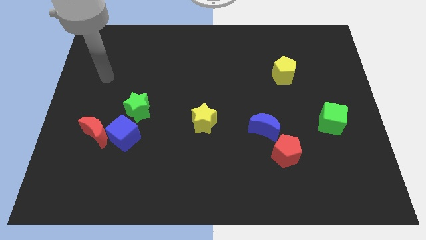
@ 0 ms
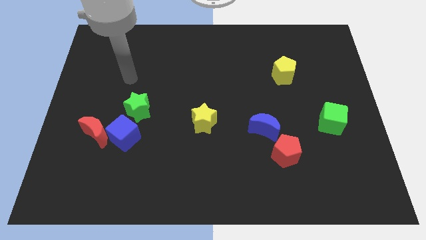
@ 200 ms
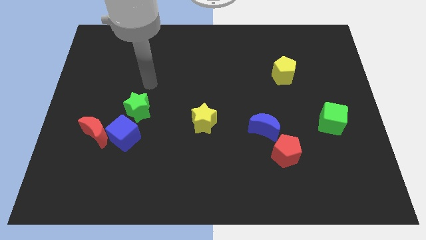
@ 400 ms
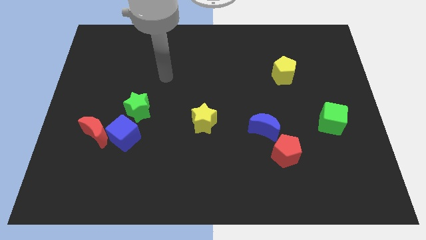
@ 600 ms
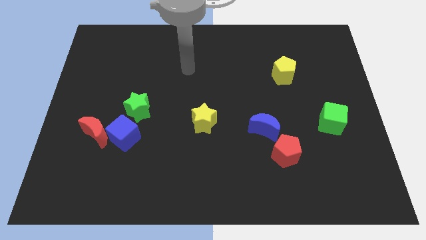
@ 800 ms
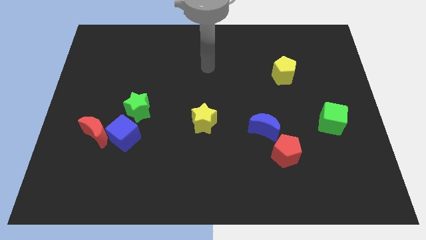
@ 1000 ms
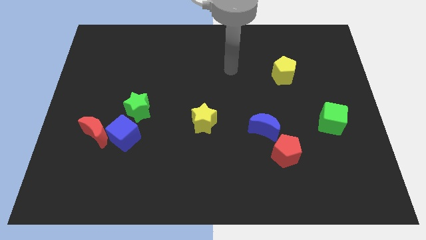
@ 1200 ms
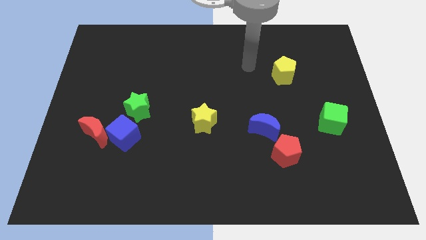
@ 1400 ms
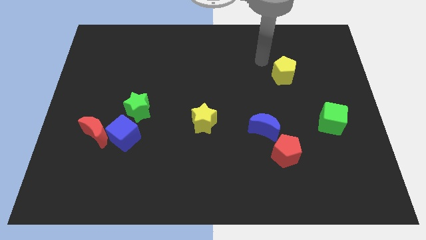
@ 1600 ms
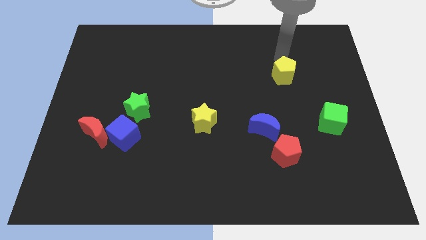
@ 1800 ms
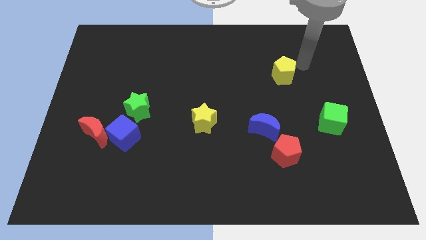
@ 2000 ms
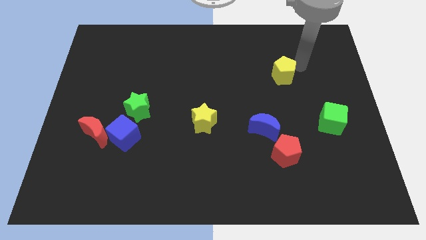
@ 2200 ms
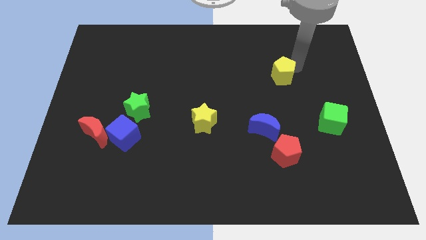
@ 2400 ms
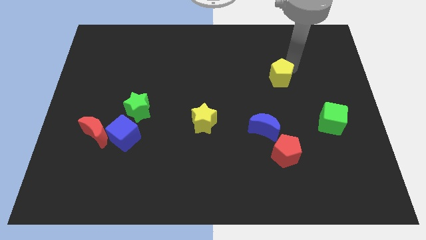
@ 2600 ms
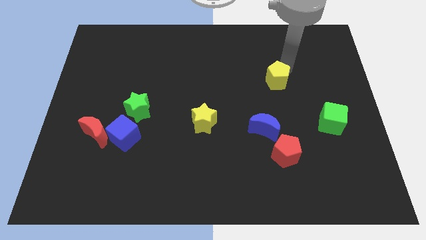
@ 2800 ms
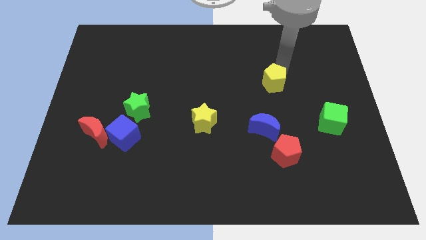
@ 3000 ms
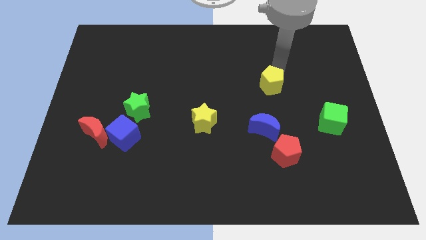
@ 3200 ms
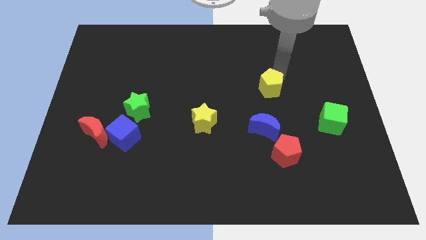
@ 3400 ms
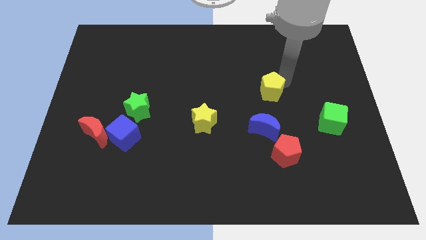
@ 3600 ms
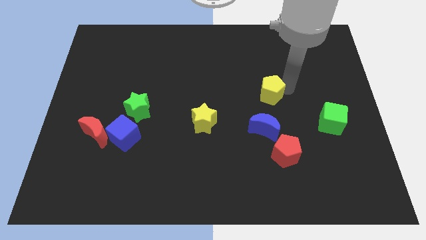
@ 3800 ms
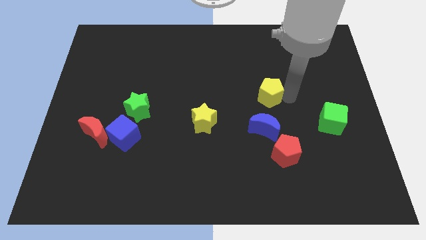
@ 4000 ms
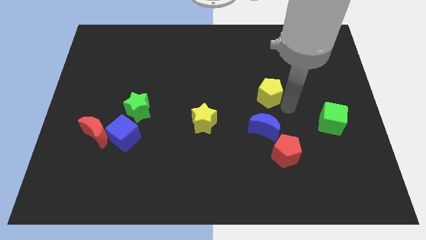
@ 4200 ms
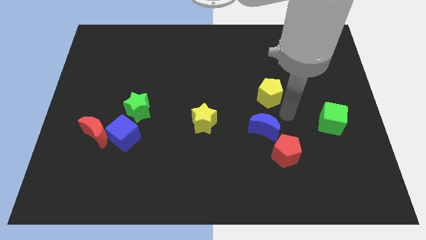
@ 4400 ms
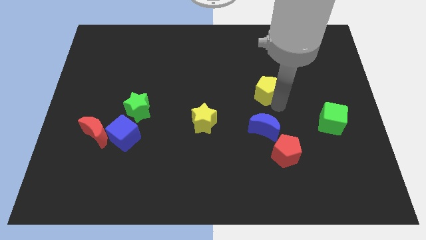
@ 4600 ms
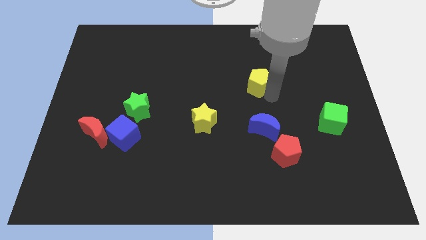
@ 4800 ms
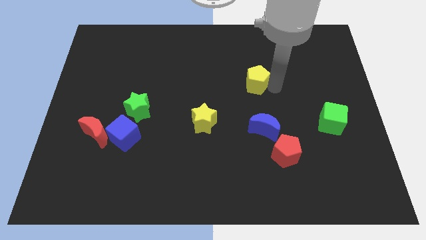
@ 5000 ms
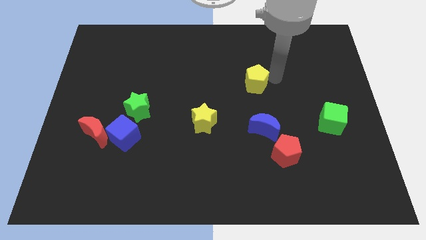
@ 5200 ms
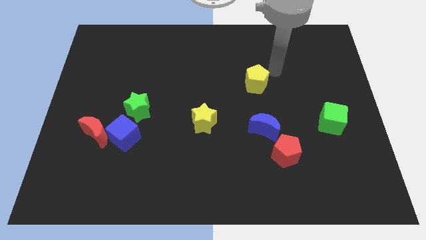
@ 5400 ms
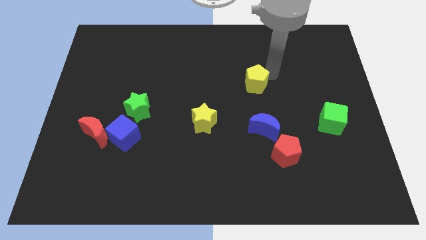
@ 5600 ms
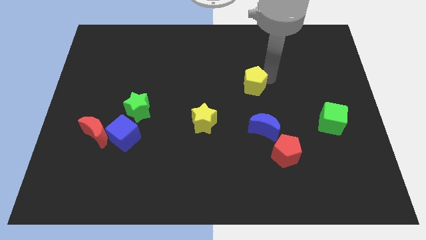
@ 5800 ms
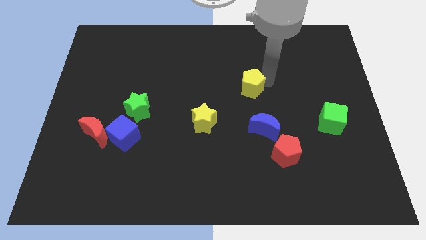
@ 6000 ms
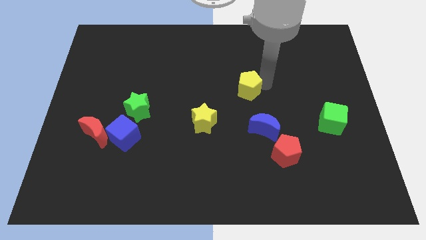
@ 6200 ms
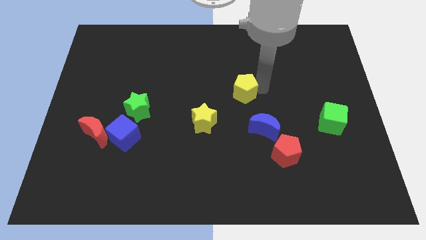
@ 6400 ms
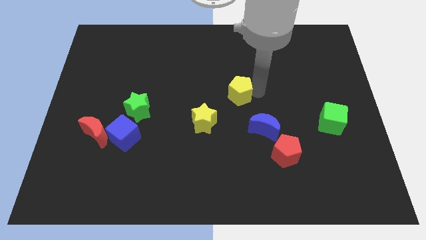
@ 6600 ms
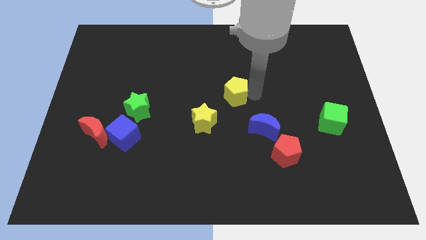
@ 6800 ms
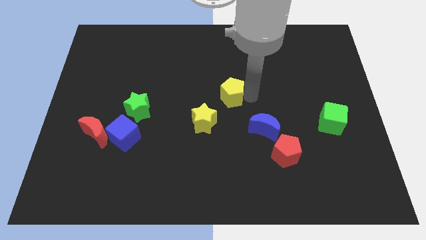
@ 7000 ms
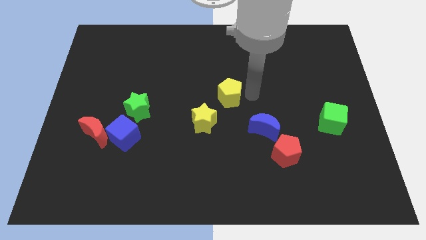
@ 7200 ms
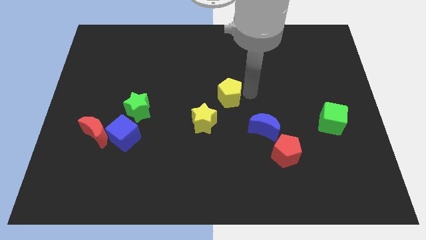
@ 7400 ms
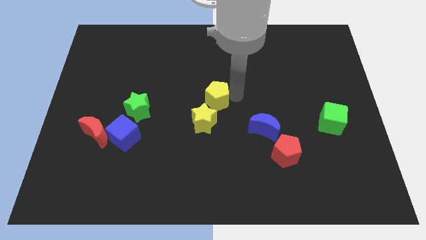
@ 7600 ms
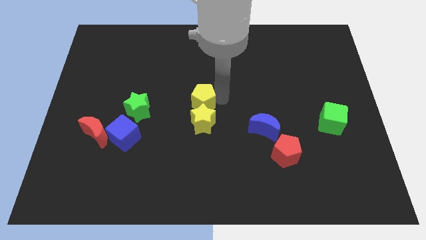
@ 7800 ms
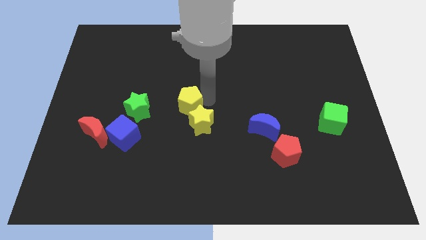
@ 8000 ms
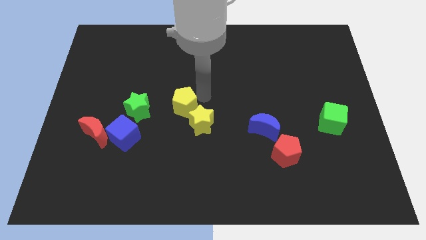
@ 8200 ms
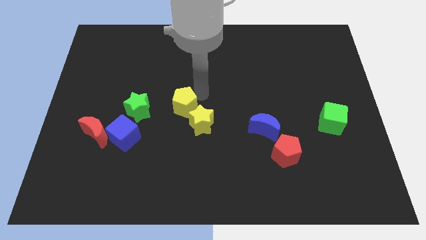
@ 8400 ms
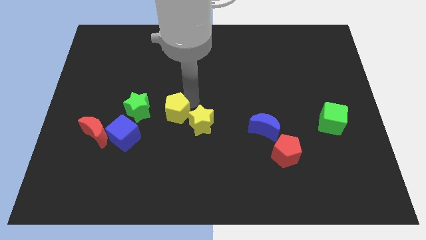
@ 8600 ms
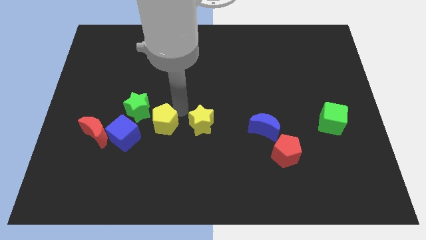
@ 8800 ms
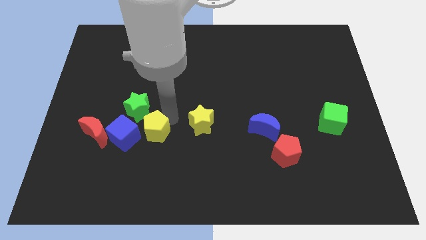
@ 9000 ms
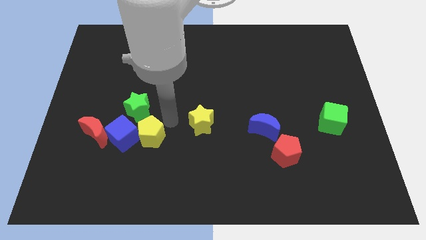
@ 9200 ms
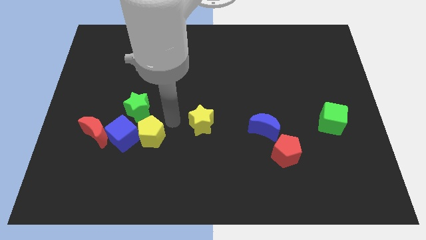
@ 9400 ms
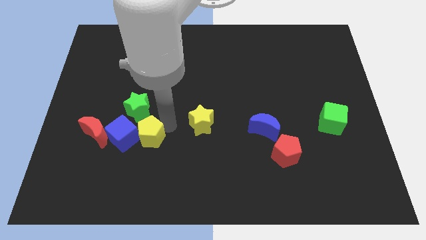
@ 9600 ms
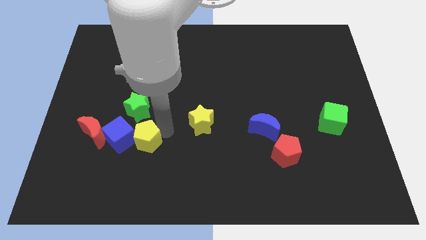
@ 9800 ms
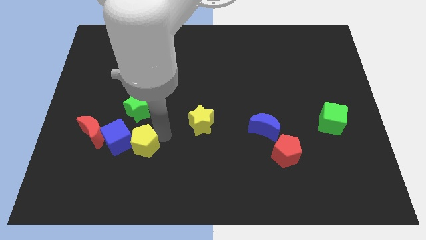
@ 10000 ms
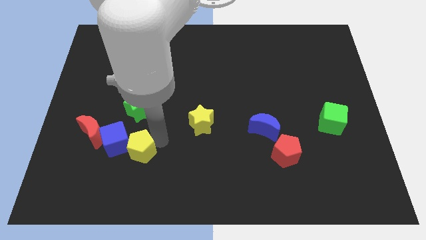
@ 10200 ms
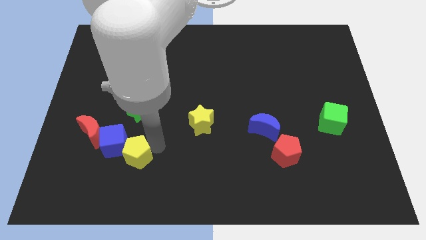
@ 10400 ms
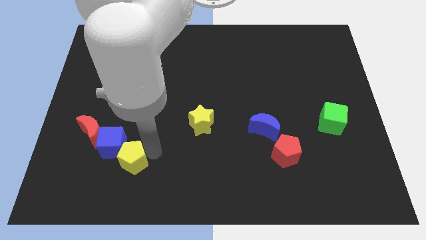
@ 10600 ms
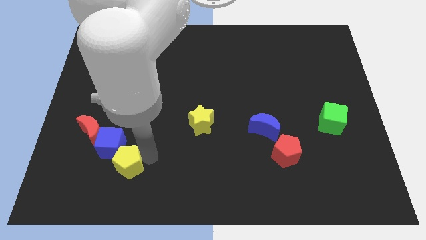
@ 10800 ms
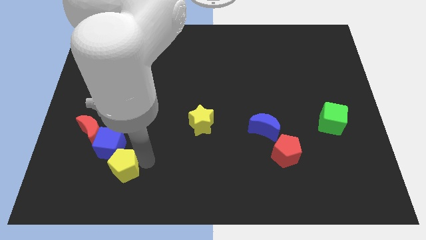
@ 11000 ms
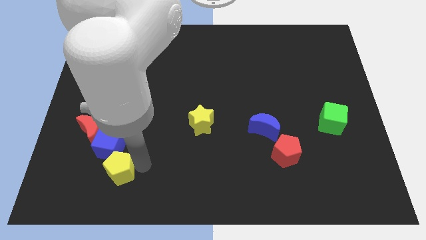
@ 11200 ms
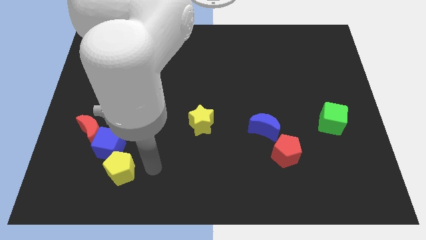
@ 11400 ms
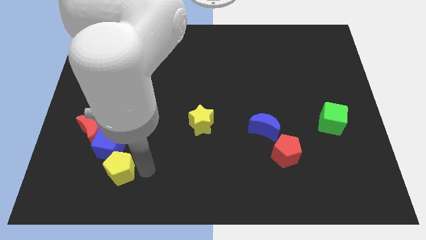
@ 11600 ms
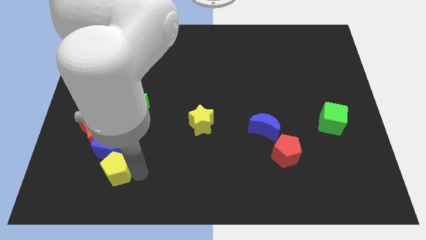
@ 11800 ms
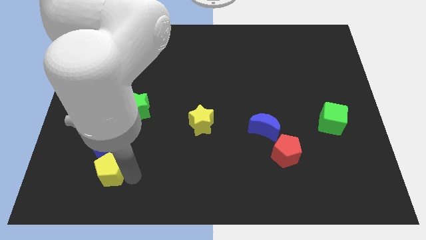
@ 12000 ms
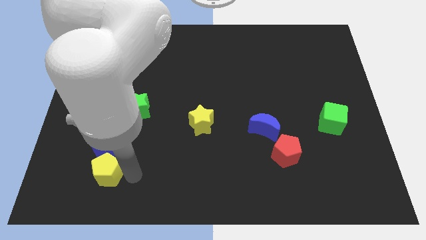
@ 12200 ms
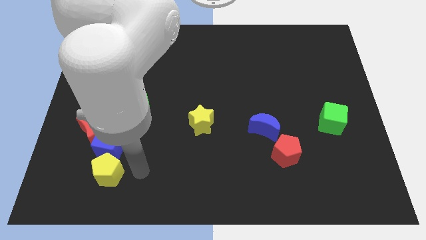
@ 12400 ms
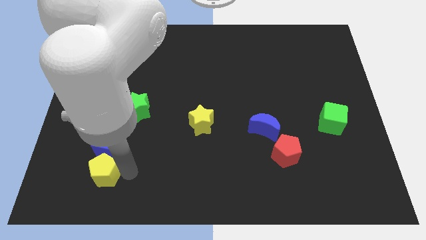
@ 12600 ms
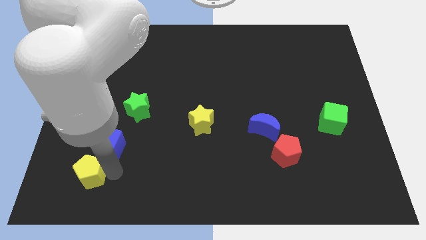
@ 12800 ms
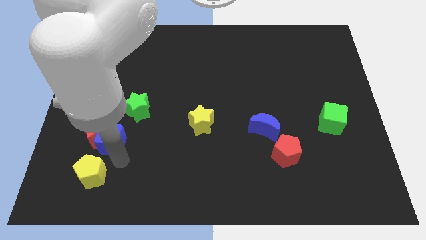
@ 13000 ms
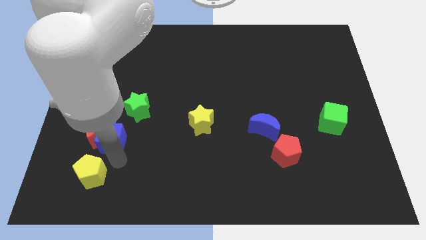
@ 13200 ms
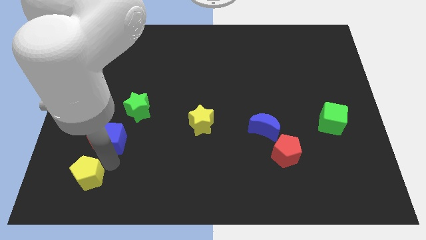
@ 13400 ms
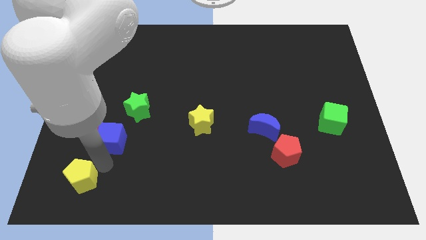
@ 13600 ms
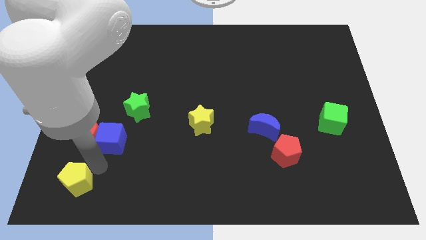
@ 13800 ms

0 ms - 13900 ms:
put the yellow pentagon to the bottom left
